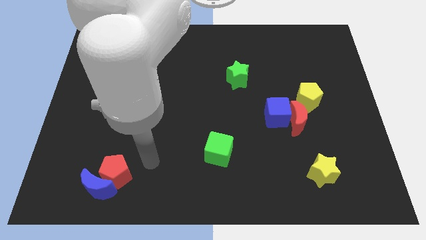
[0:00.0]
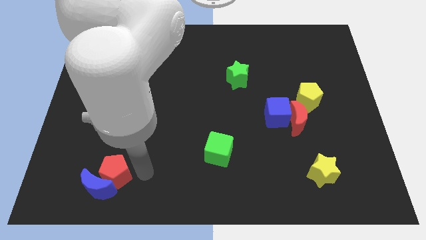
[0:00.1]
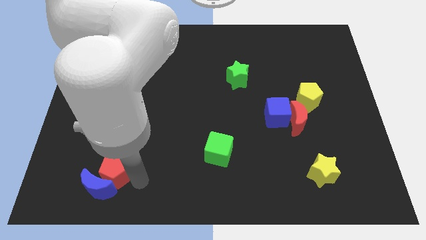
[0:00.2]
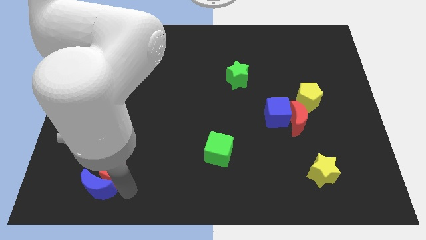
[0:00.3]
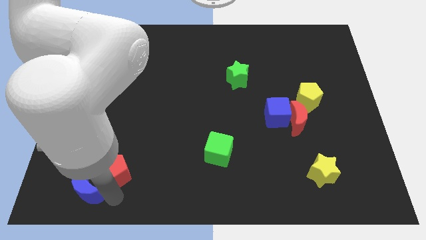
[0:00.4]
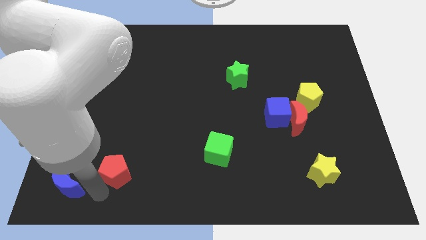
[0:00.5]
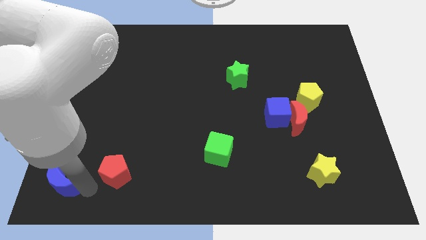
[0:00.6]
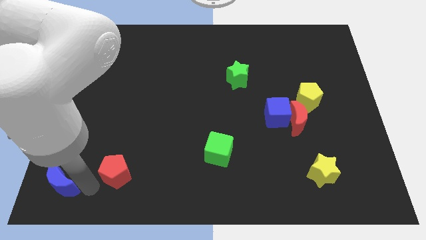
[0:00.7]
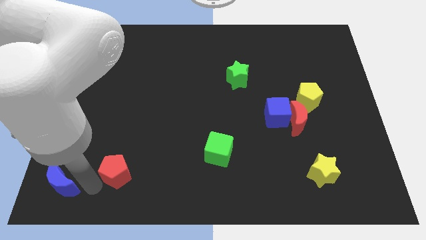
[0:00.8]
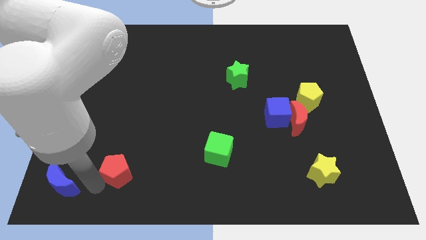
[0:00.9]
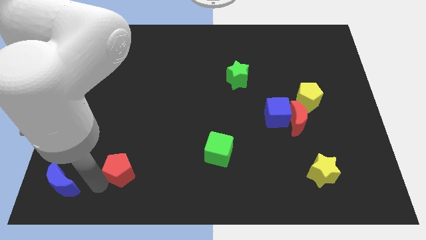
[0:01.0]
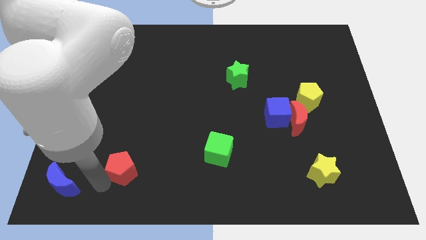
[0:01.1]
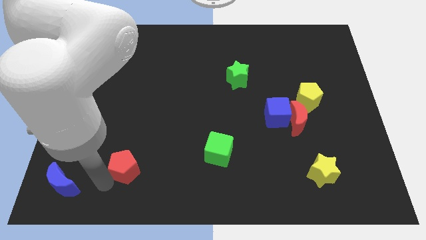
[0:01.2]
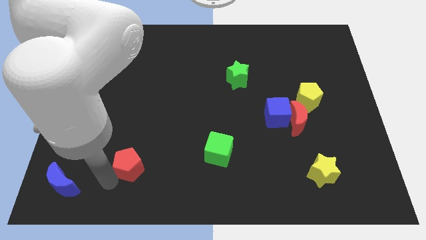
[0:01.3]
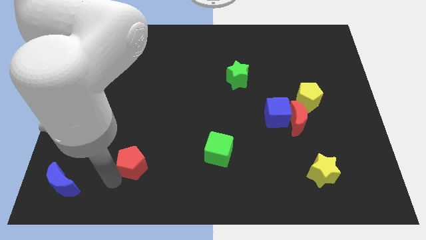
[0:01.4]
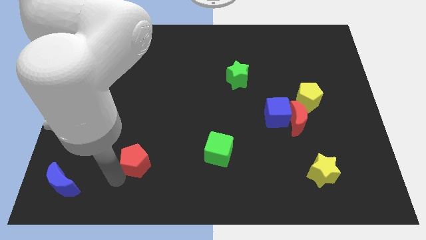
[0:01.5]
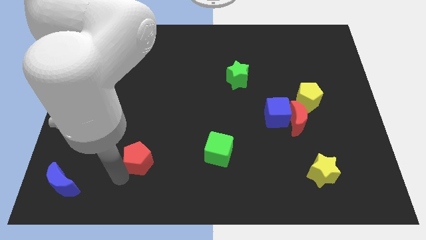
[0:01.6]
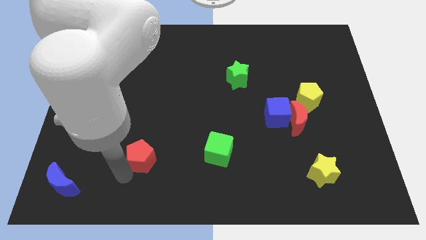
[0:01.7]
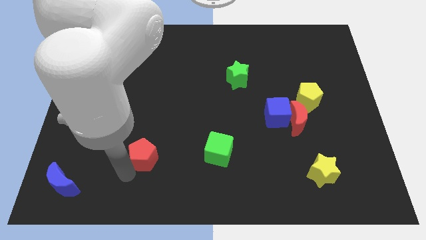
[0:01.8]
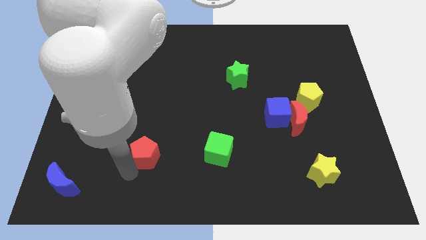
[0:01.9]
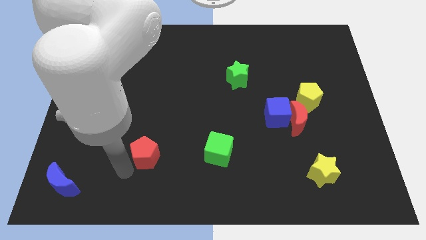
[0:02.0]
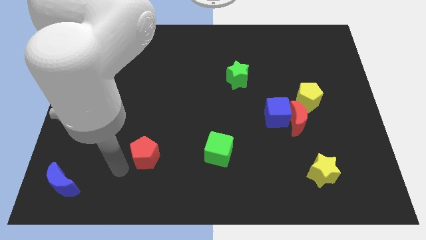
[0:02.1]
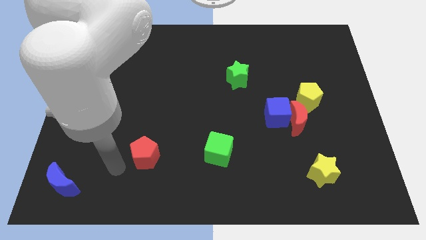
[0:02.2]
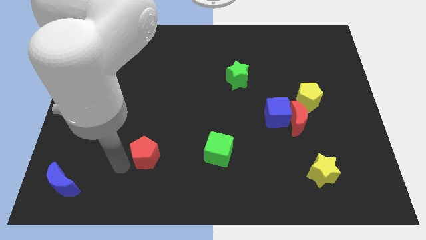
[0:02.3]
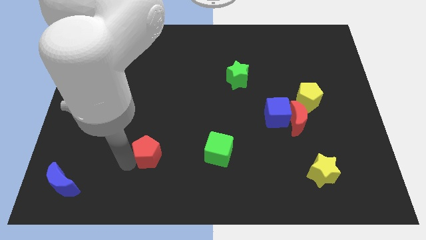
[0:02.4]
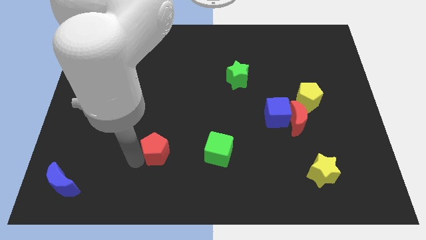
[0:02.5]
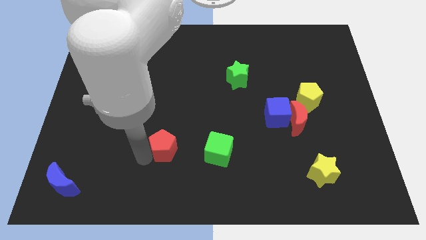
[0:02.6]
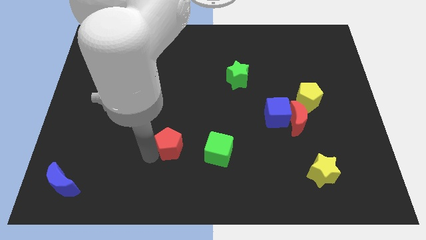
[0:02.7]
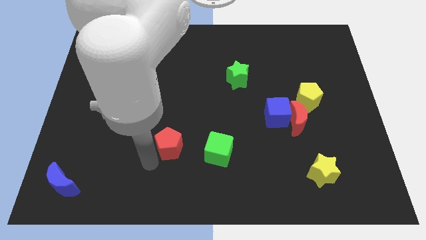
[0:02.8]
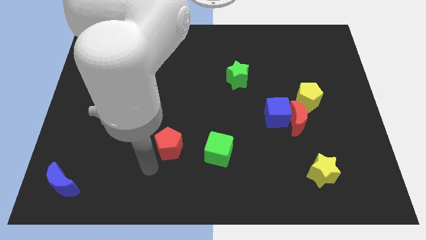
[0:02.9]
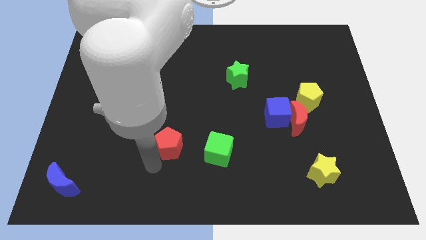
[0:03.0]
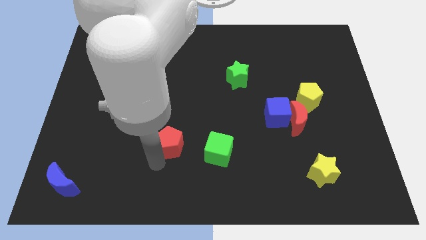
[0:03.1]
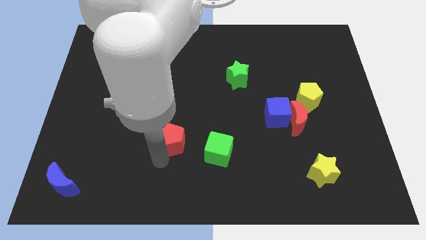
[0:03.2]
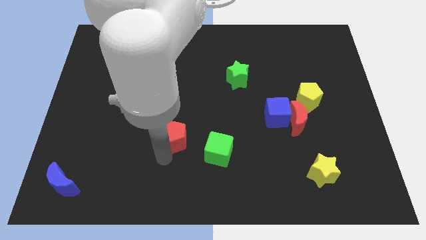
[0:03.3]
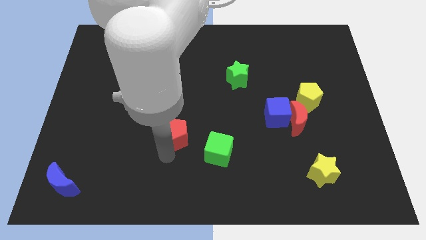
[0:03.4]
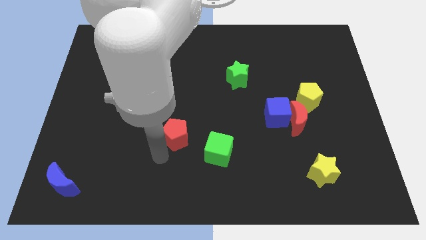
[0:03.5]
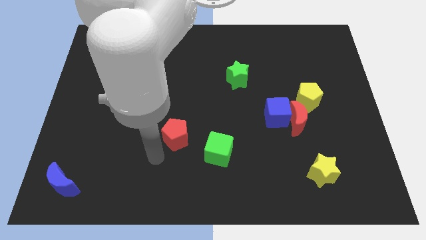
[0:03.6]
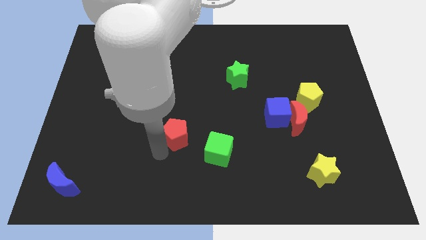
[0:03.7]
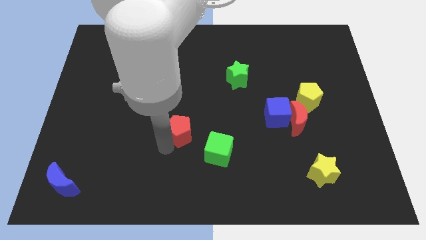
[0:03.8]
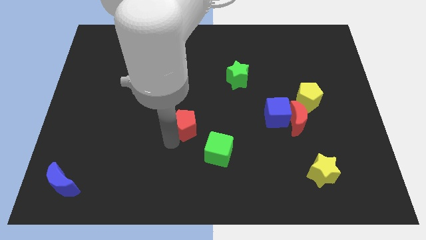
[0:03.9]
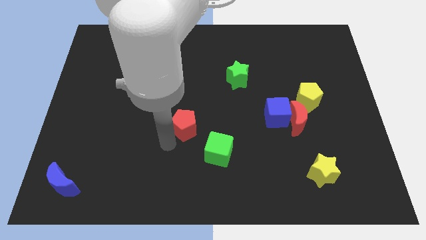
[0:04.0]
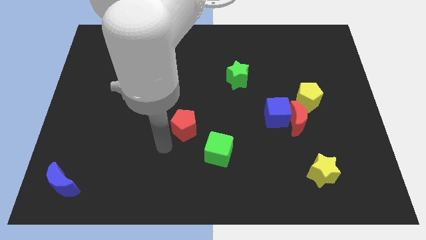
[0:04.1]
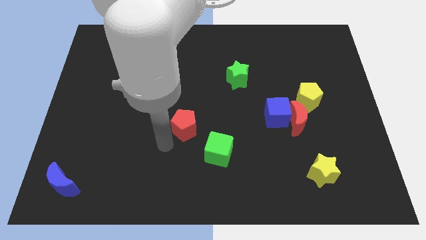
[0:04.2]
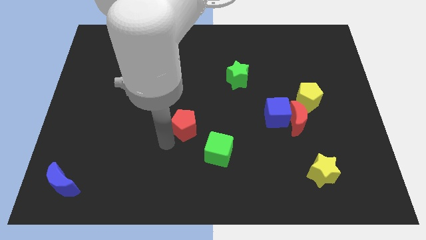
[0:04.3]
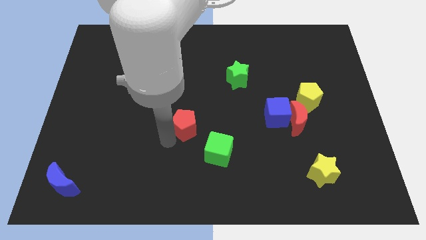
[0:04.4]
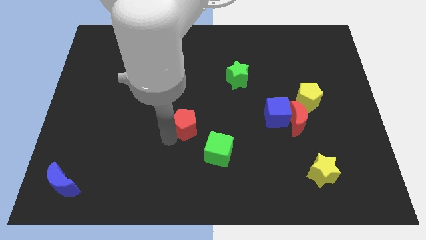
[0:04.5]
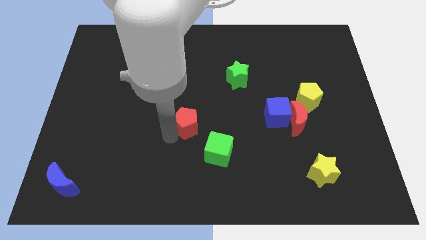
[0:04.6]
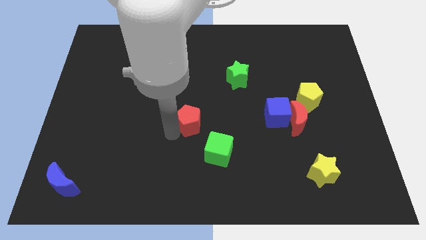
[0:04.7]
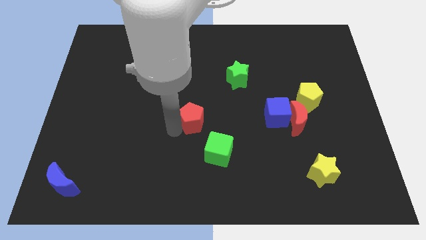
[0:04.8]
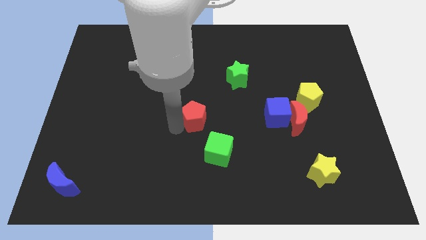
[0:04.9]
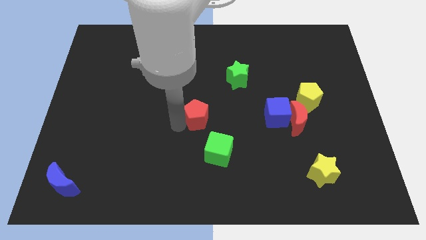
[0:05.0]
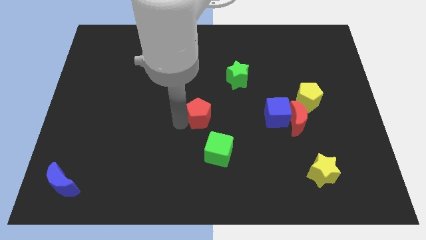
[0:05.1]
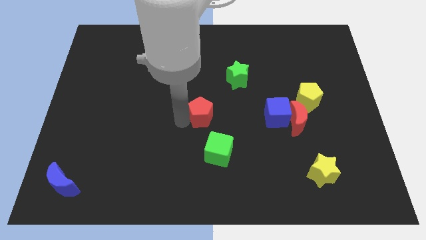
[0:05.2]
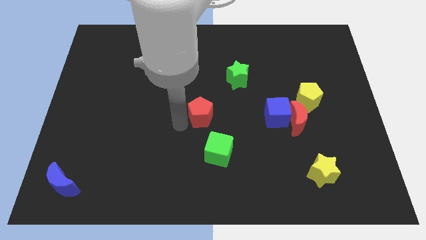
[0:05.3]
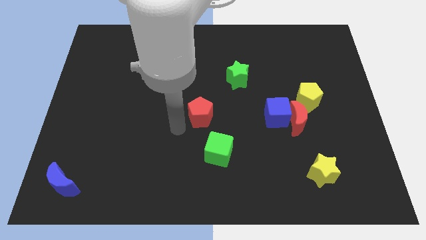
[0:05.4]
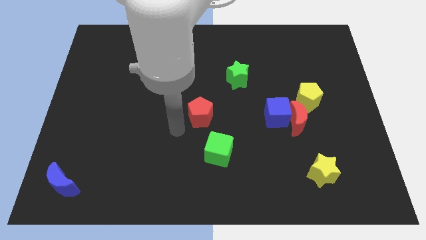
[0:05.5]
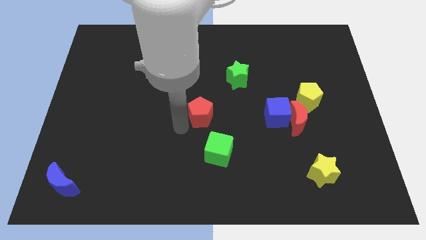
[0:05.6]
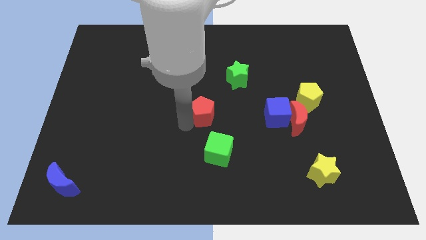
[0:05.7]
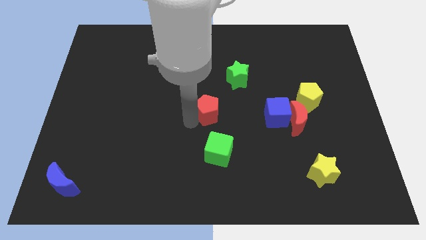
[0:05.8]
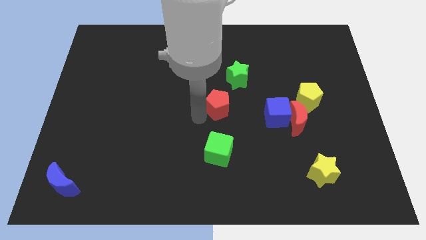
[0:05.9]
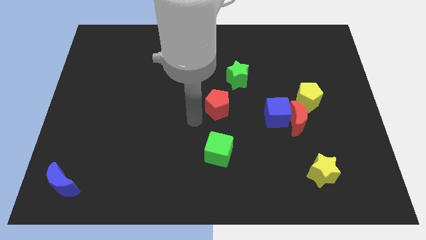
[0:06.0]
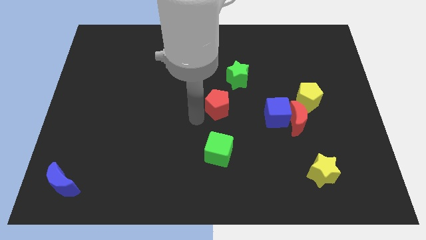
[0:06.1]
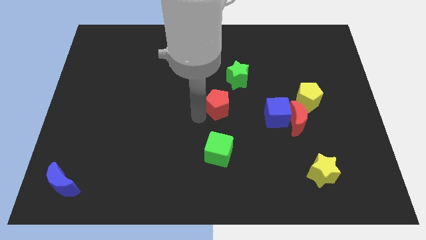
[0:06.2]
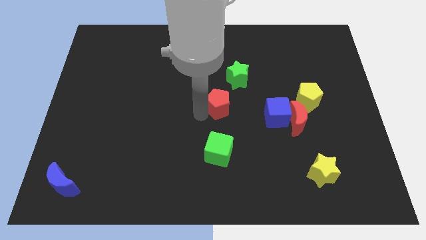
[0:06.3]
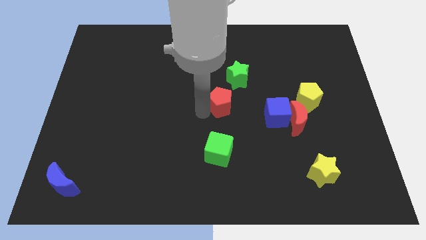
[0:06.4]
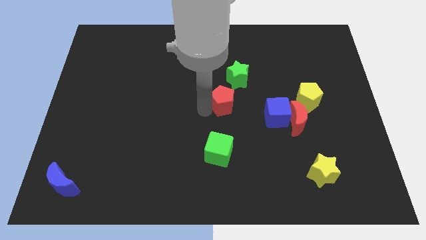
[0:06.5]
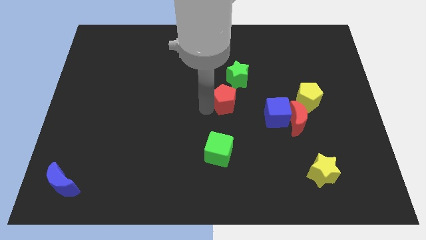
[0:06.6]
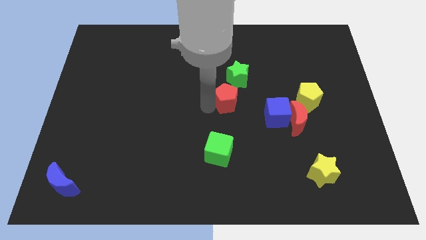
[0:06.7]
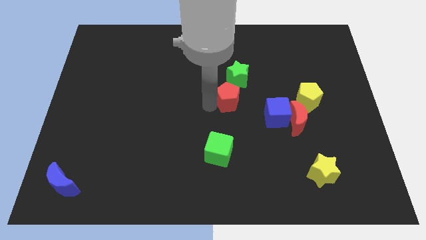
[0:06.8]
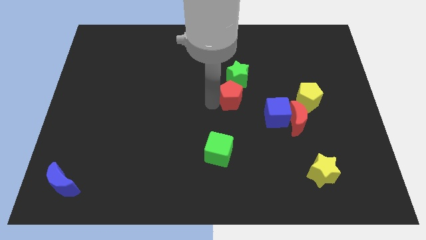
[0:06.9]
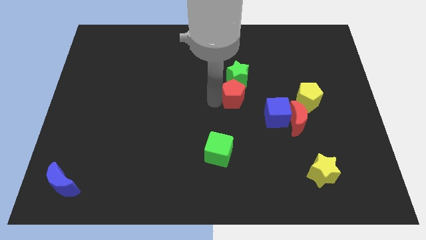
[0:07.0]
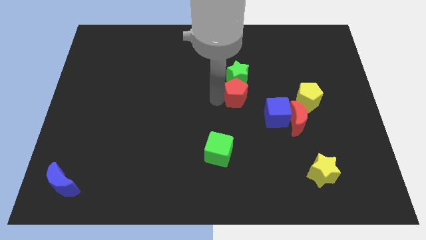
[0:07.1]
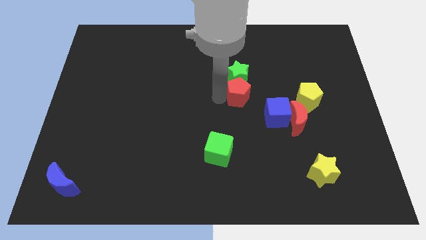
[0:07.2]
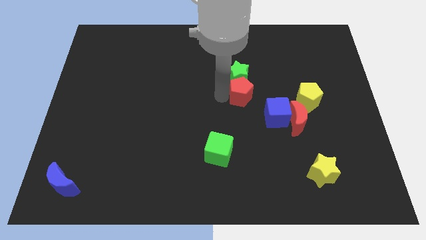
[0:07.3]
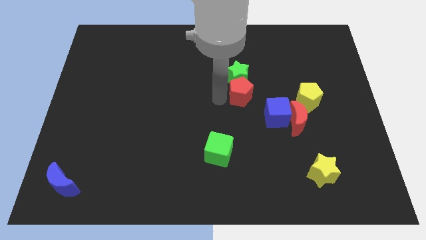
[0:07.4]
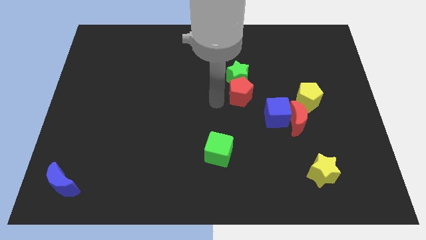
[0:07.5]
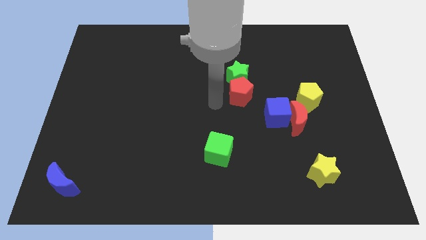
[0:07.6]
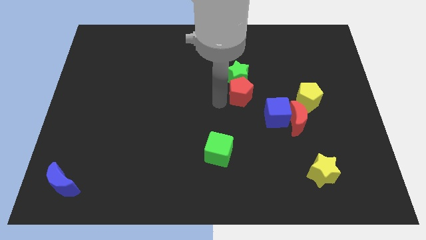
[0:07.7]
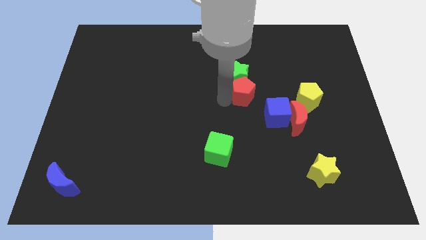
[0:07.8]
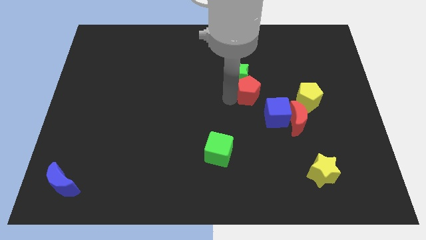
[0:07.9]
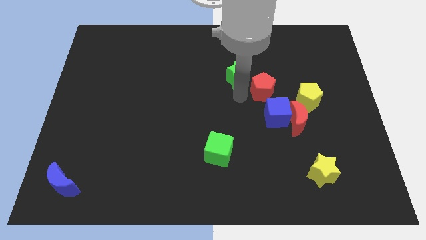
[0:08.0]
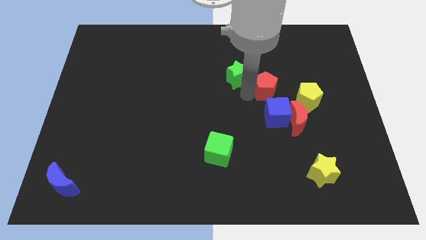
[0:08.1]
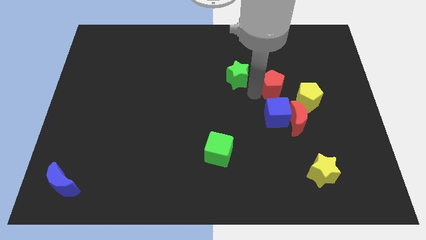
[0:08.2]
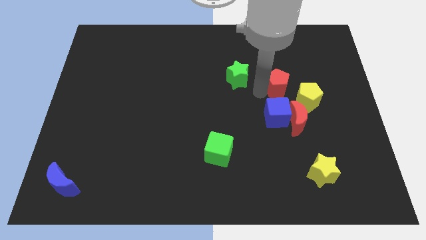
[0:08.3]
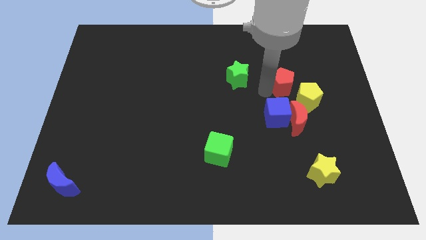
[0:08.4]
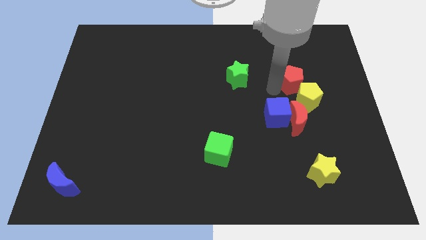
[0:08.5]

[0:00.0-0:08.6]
push the red pentagon above the yellow pentagon

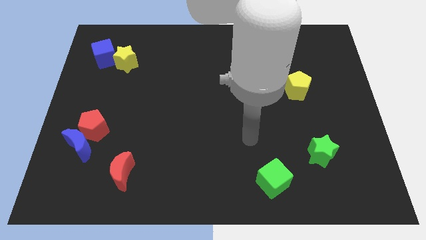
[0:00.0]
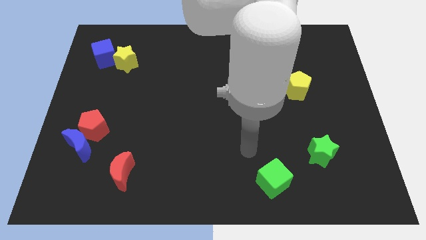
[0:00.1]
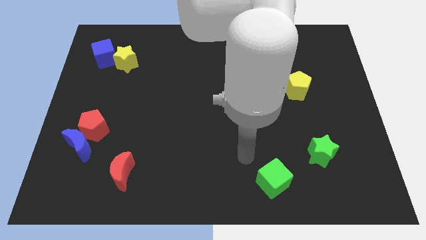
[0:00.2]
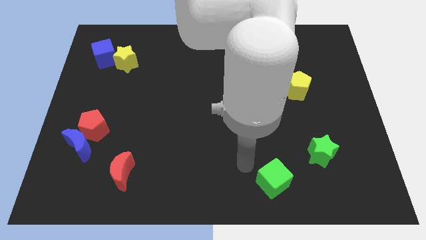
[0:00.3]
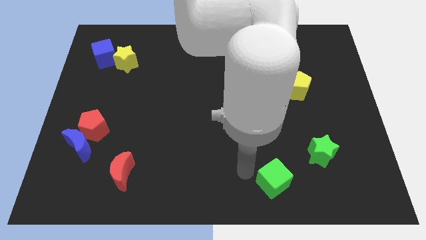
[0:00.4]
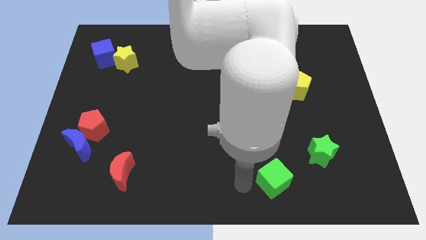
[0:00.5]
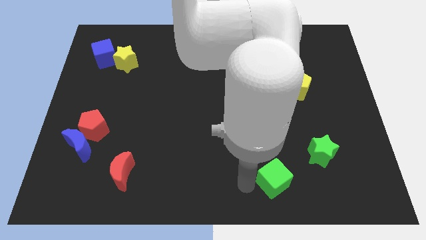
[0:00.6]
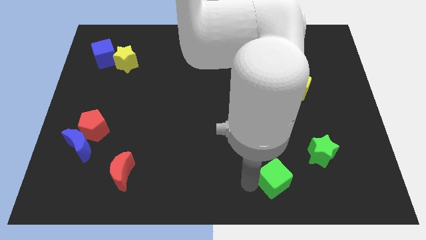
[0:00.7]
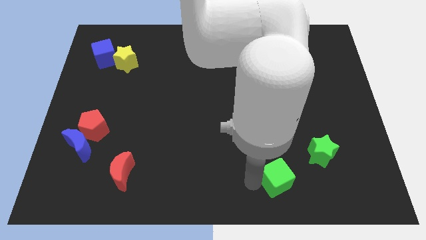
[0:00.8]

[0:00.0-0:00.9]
move the green cube diagonally down and to the left of the green star
